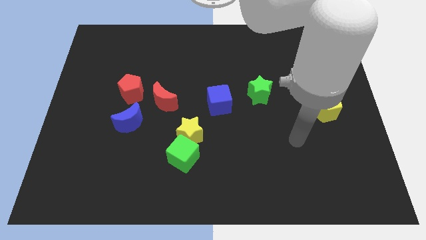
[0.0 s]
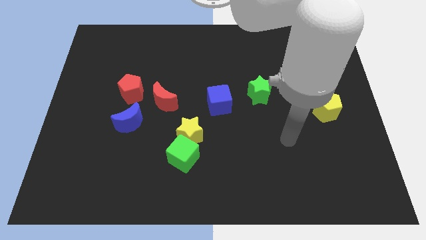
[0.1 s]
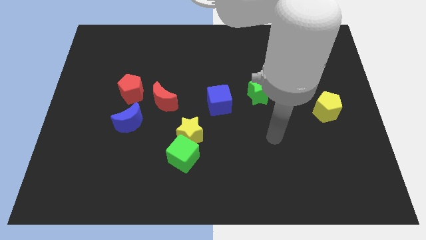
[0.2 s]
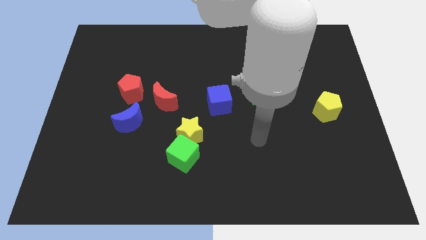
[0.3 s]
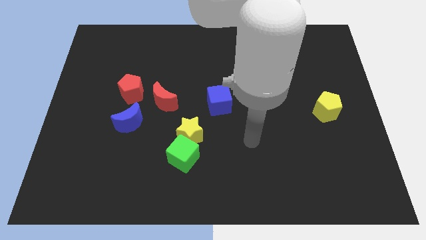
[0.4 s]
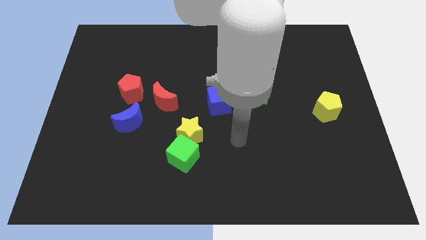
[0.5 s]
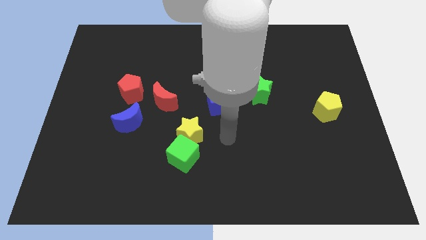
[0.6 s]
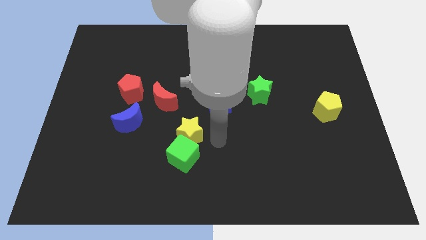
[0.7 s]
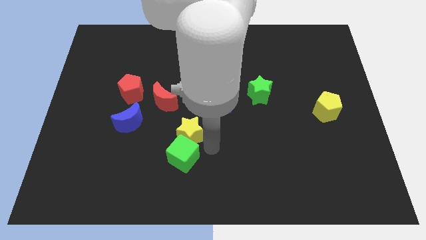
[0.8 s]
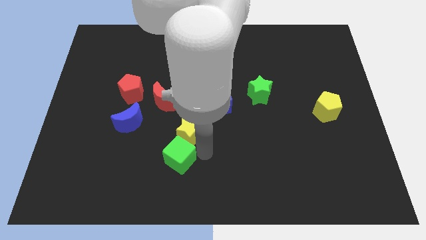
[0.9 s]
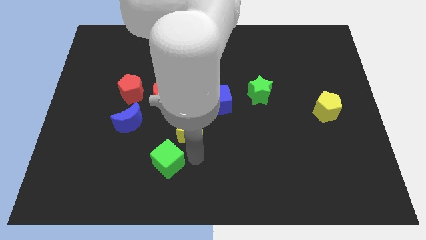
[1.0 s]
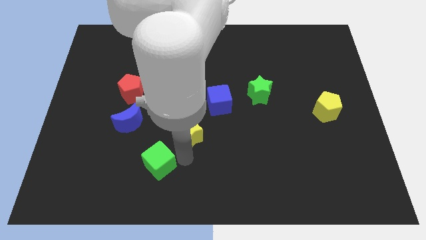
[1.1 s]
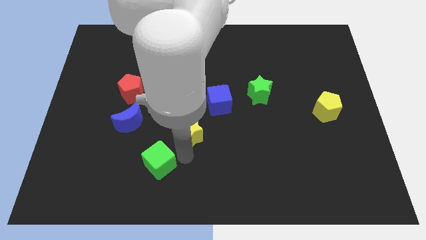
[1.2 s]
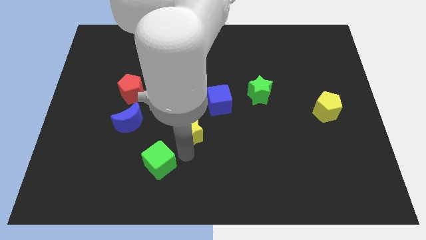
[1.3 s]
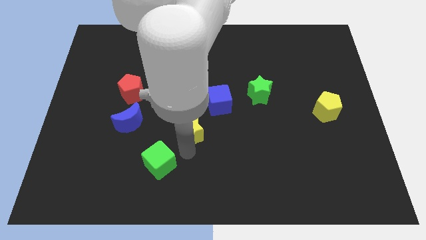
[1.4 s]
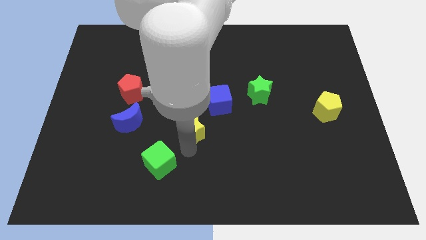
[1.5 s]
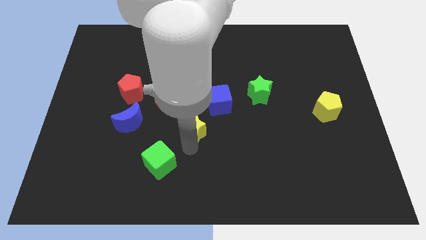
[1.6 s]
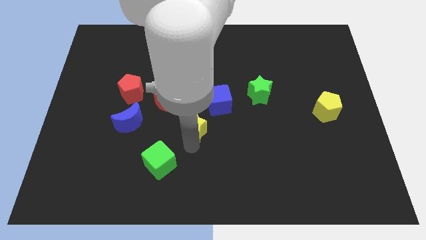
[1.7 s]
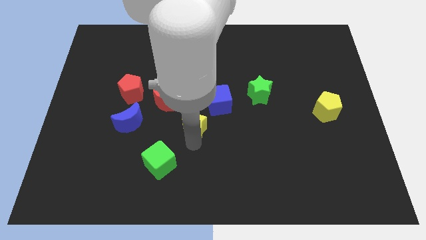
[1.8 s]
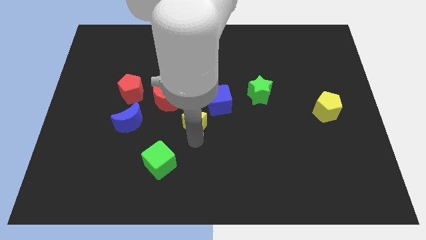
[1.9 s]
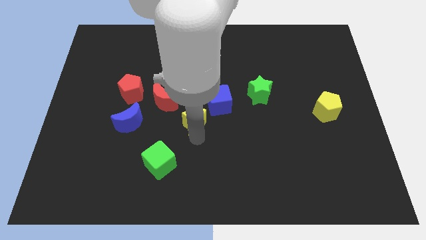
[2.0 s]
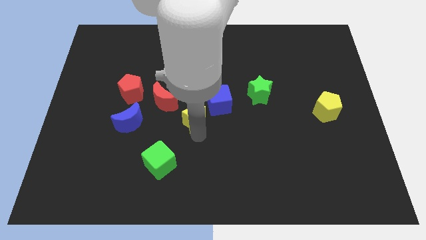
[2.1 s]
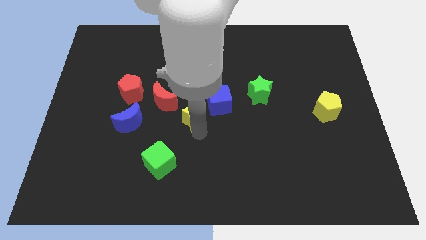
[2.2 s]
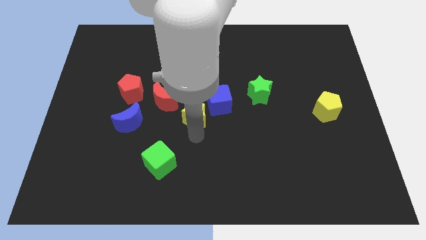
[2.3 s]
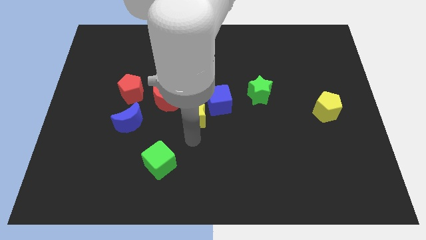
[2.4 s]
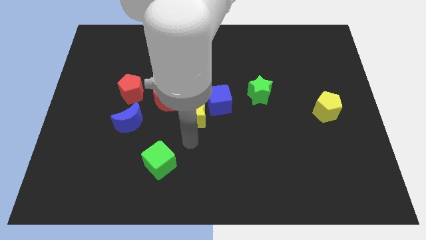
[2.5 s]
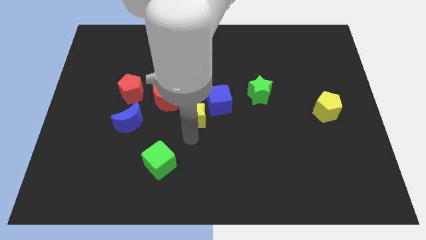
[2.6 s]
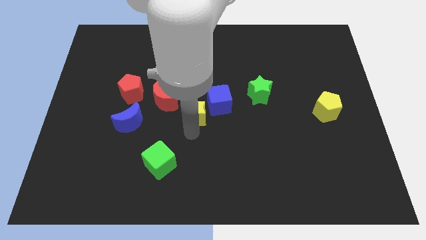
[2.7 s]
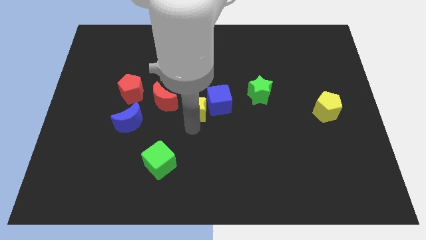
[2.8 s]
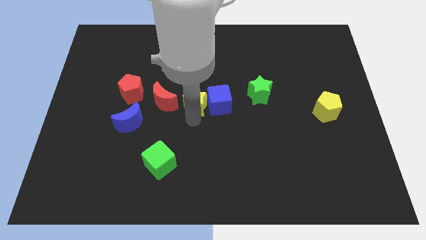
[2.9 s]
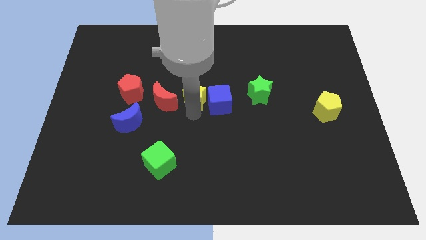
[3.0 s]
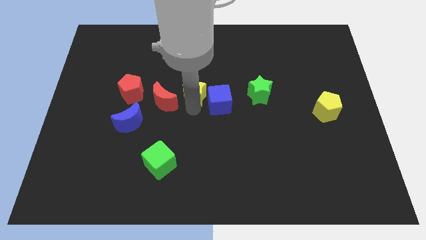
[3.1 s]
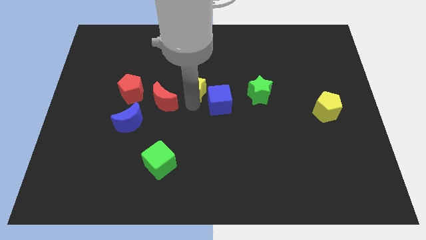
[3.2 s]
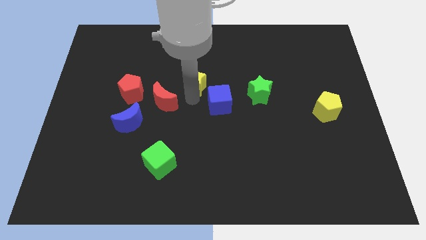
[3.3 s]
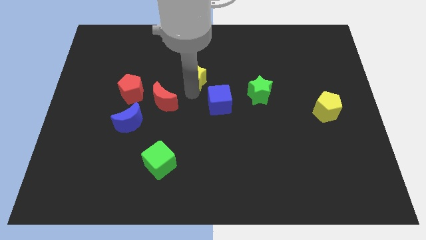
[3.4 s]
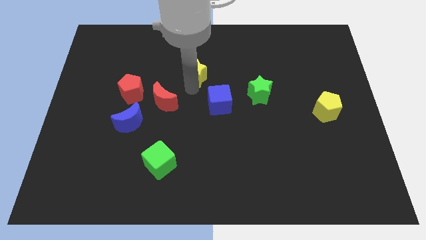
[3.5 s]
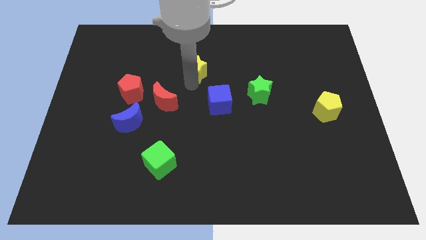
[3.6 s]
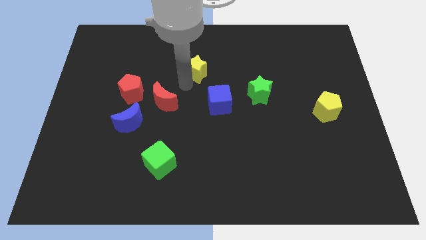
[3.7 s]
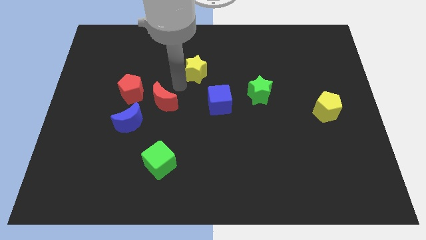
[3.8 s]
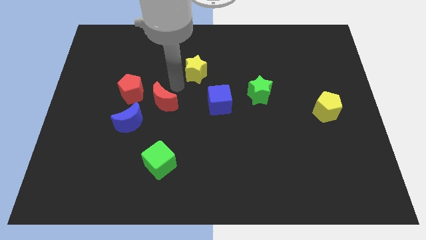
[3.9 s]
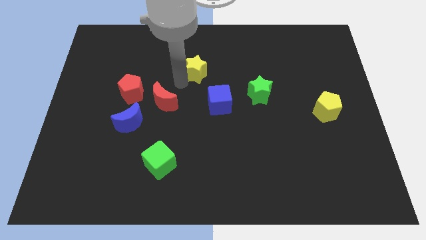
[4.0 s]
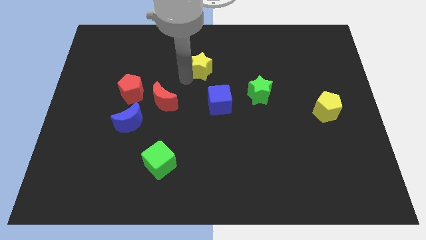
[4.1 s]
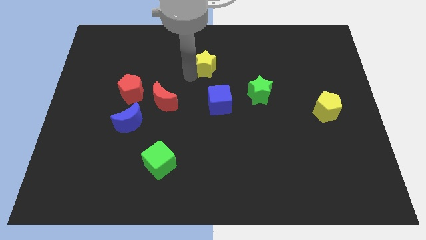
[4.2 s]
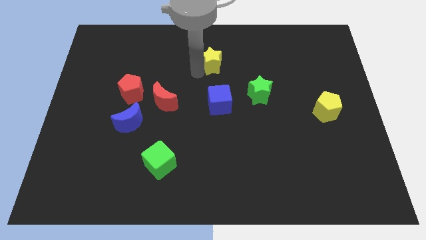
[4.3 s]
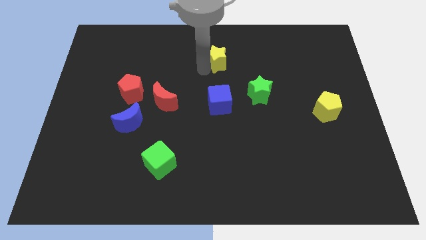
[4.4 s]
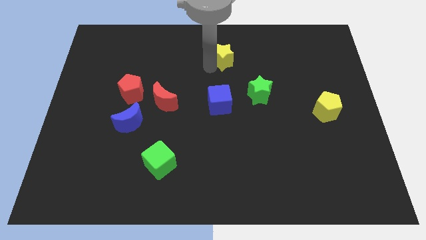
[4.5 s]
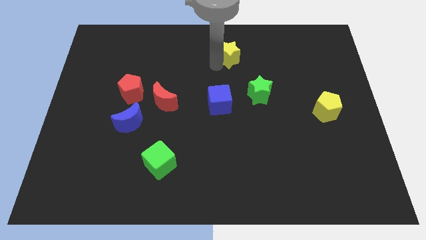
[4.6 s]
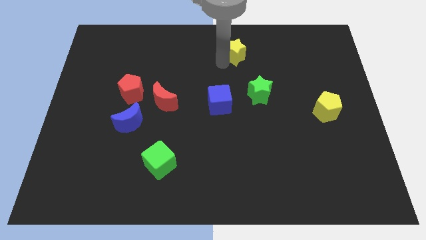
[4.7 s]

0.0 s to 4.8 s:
slide the yellow star to the towards your base

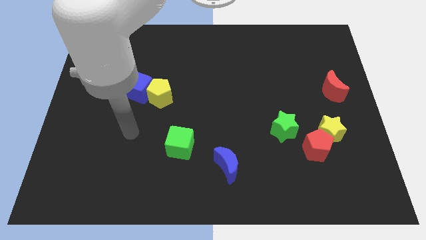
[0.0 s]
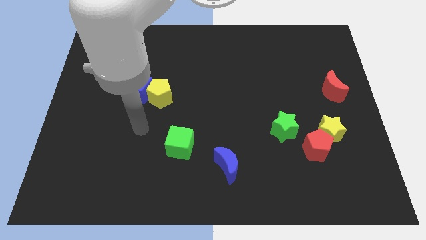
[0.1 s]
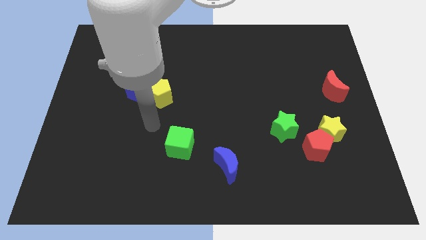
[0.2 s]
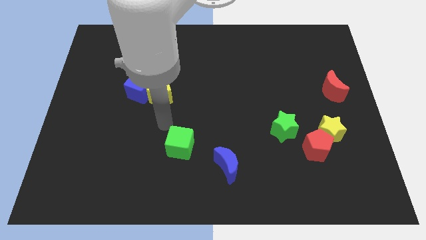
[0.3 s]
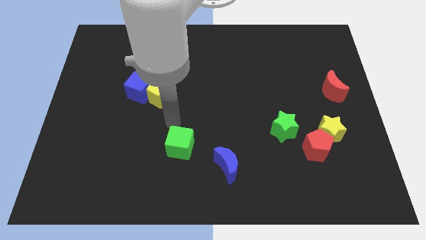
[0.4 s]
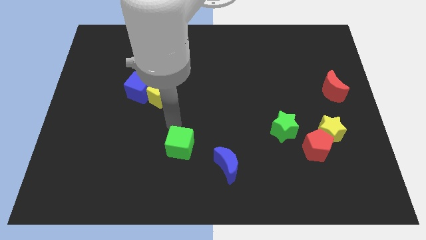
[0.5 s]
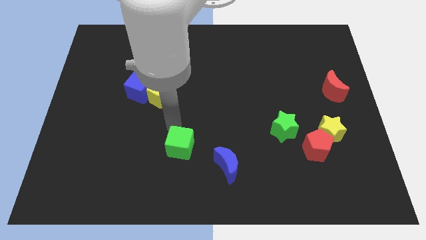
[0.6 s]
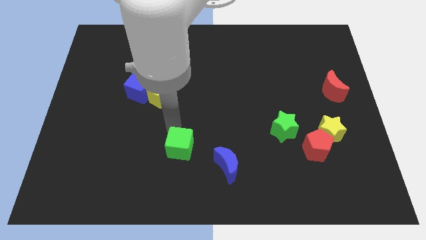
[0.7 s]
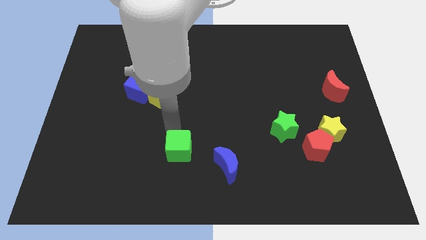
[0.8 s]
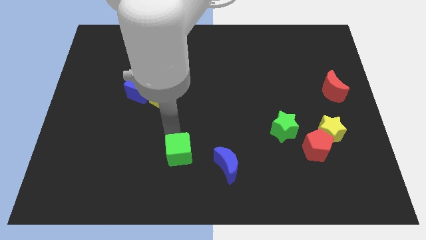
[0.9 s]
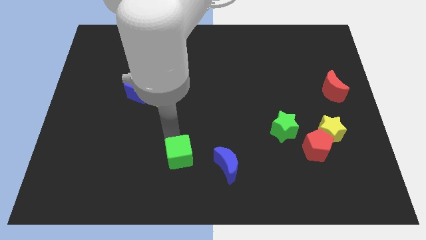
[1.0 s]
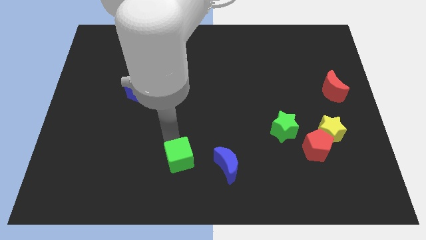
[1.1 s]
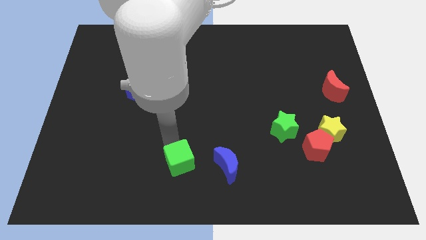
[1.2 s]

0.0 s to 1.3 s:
push the green cube to the bottom side
